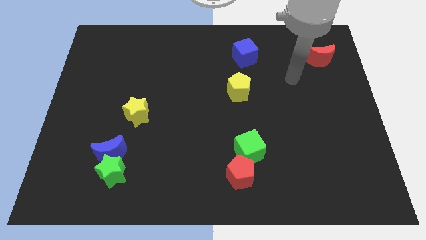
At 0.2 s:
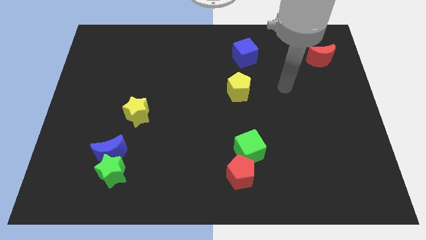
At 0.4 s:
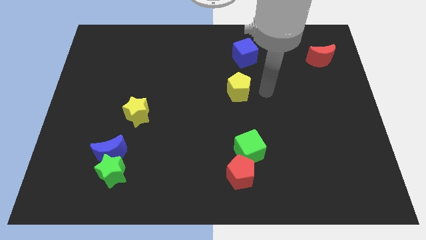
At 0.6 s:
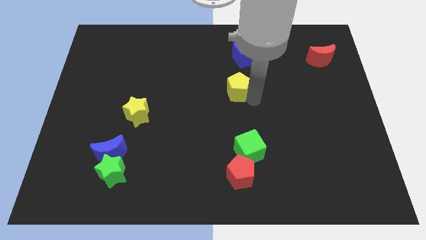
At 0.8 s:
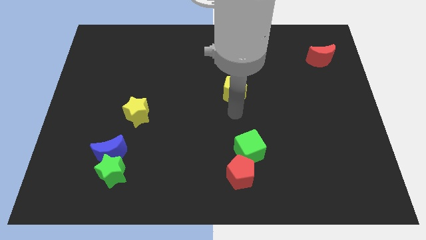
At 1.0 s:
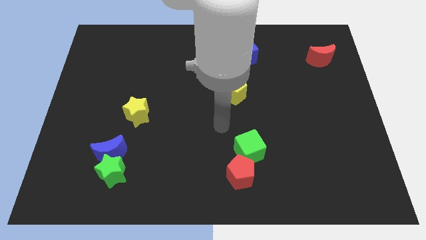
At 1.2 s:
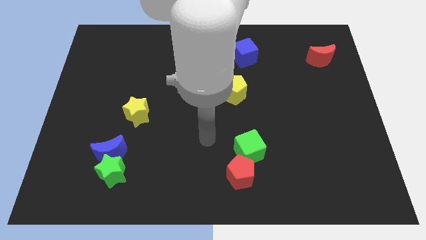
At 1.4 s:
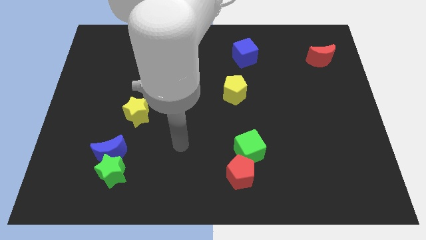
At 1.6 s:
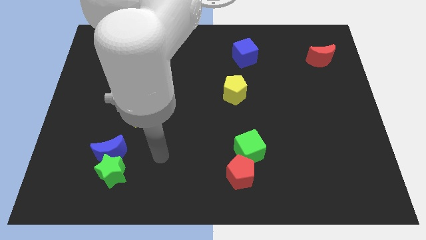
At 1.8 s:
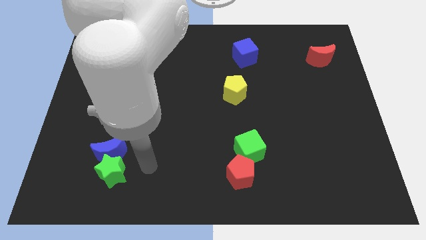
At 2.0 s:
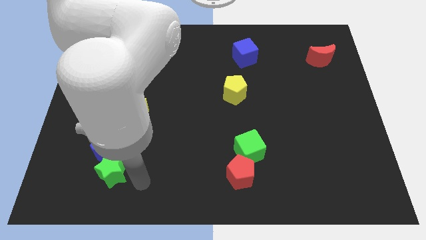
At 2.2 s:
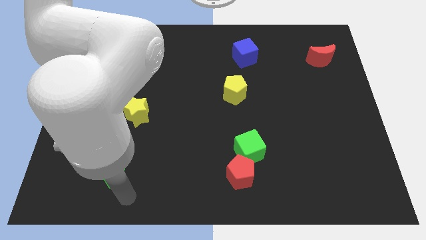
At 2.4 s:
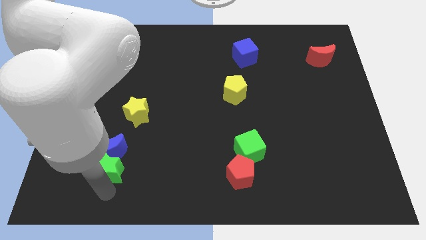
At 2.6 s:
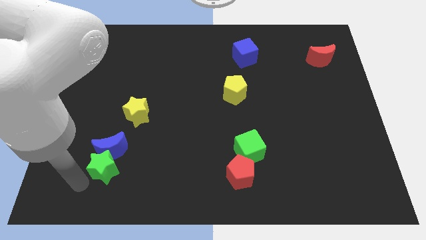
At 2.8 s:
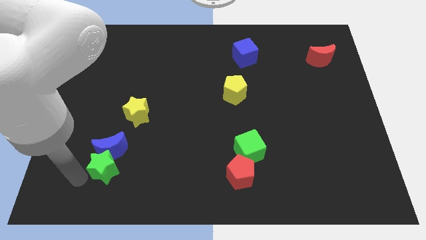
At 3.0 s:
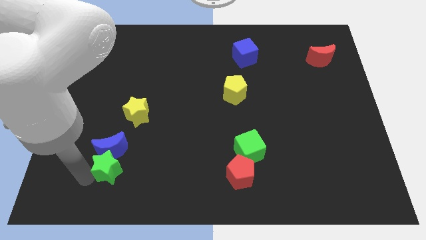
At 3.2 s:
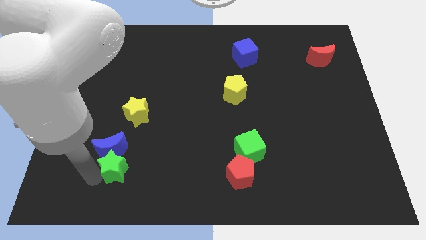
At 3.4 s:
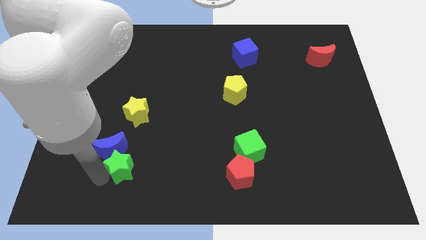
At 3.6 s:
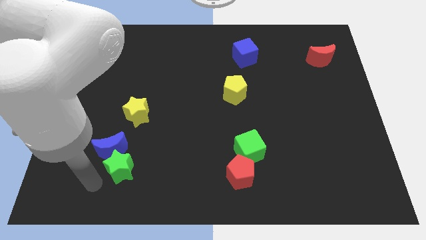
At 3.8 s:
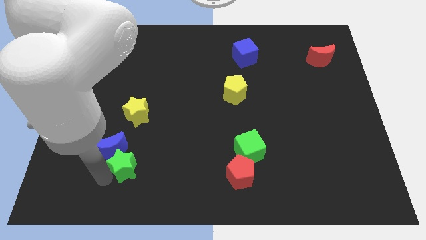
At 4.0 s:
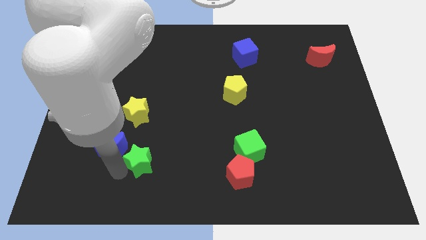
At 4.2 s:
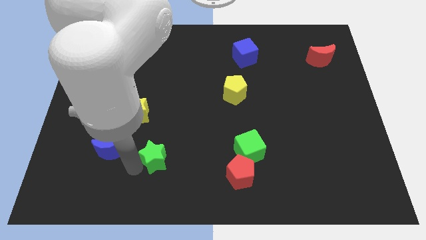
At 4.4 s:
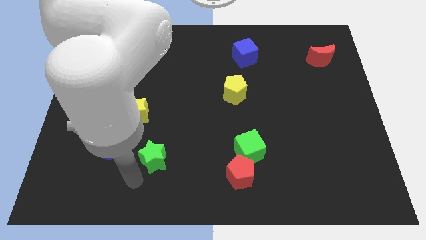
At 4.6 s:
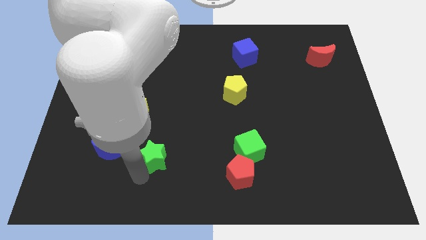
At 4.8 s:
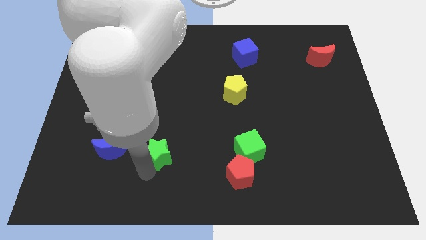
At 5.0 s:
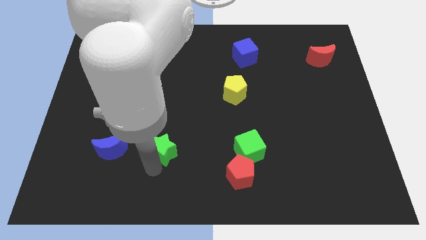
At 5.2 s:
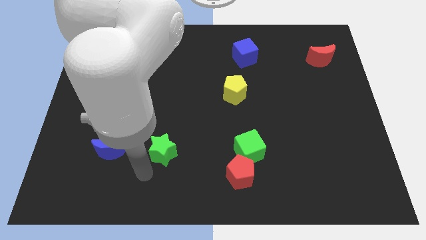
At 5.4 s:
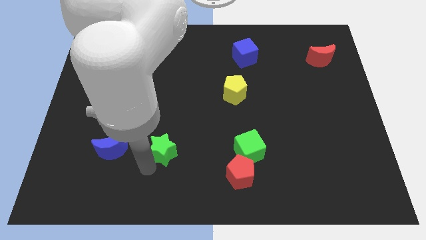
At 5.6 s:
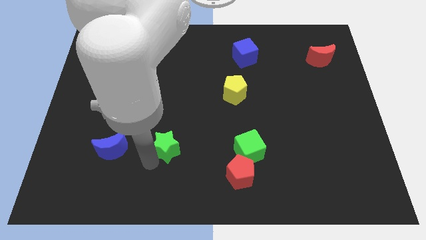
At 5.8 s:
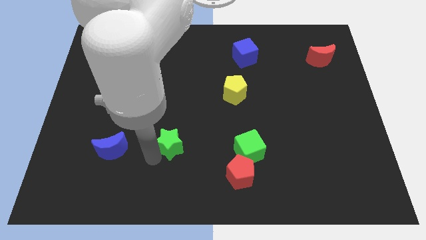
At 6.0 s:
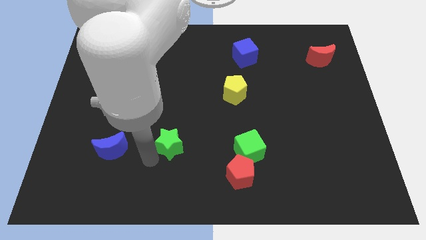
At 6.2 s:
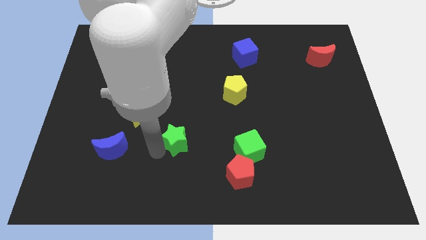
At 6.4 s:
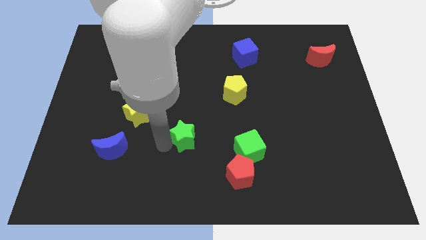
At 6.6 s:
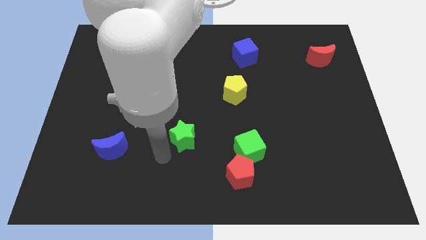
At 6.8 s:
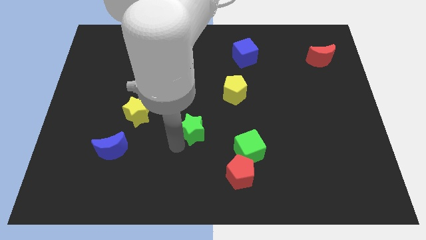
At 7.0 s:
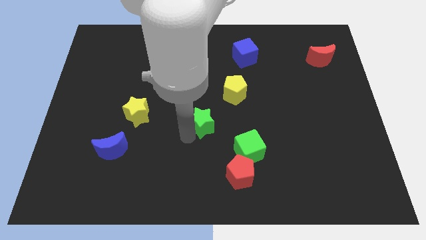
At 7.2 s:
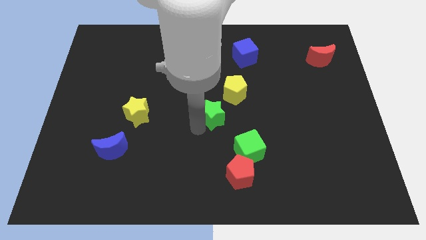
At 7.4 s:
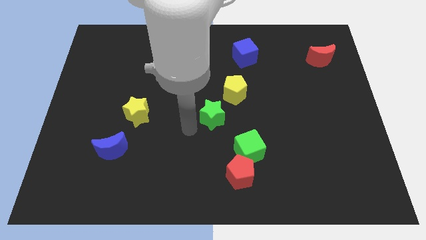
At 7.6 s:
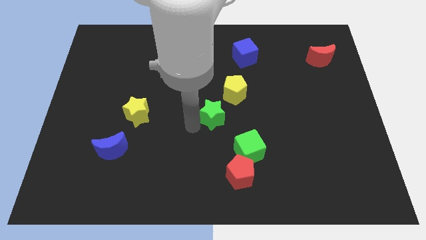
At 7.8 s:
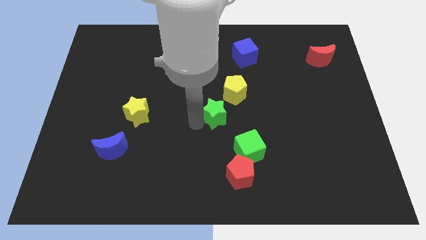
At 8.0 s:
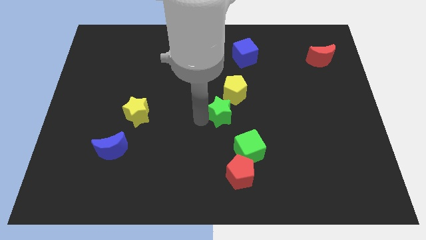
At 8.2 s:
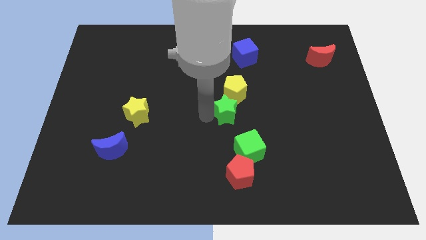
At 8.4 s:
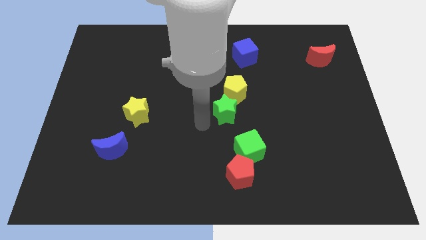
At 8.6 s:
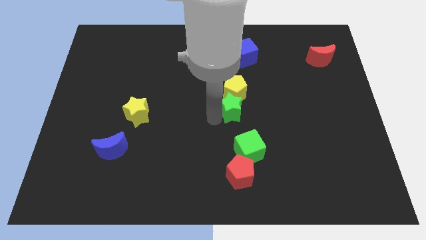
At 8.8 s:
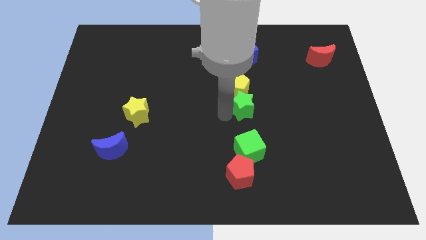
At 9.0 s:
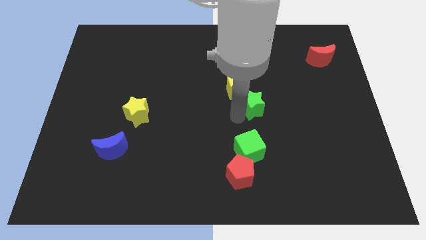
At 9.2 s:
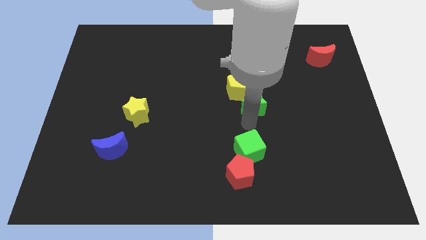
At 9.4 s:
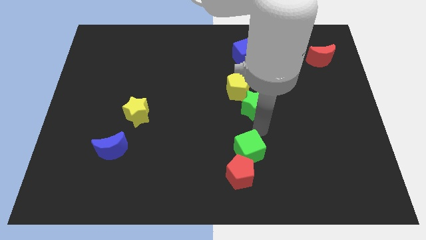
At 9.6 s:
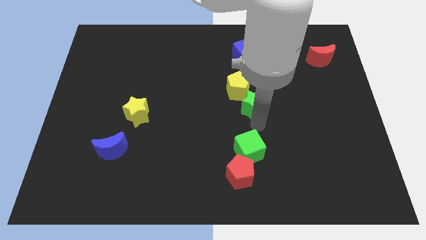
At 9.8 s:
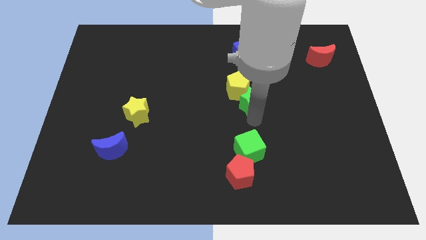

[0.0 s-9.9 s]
put the green star to the bottom side of the blue cube

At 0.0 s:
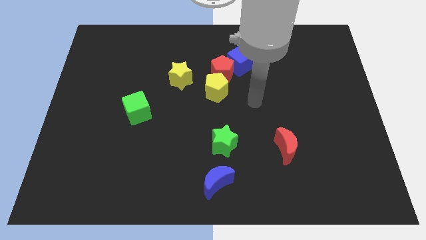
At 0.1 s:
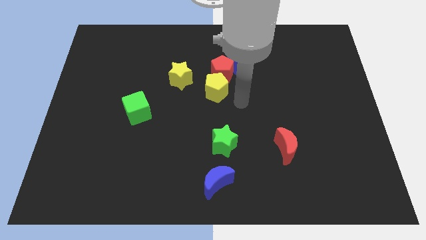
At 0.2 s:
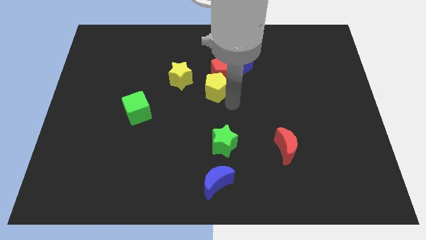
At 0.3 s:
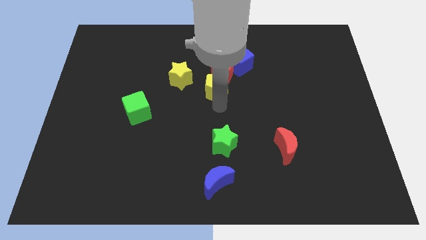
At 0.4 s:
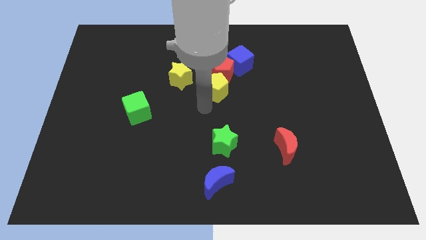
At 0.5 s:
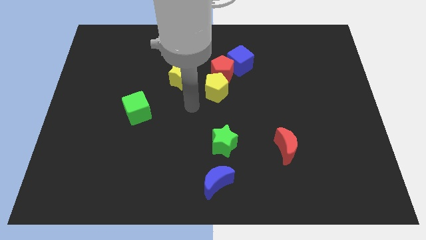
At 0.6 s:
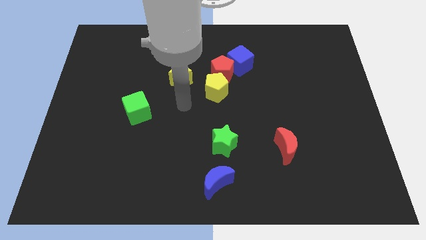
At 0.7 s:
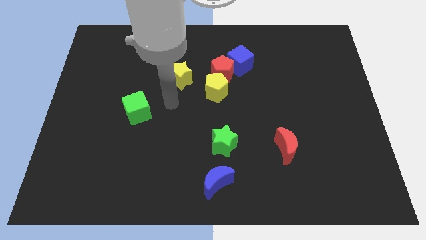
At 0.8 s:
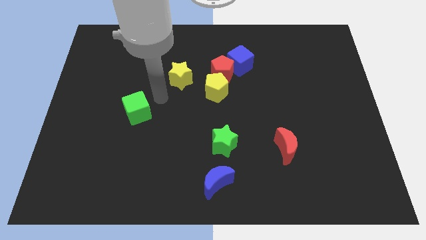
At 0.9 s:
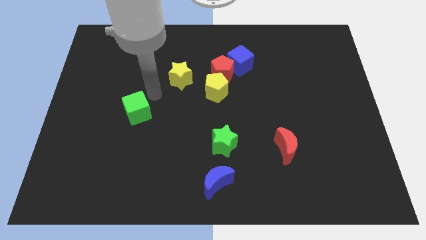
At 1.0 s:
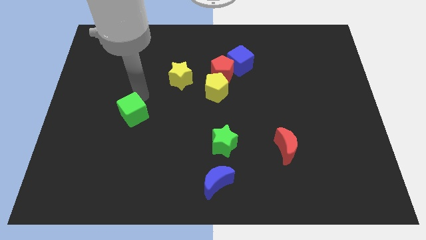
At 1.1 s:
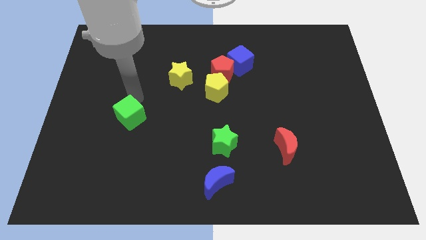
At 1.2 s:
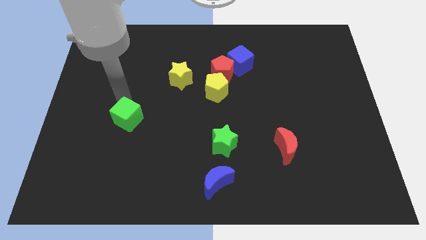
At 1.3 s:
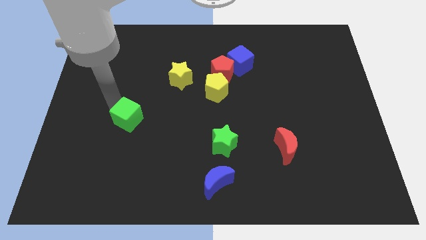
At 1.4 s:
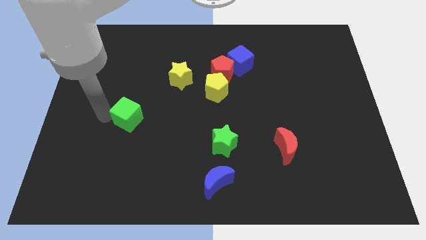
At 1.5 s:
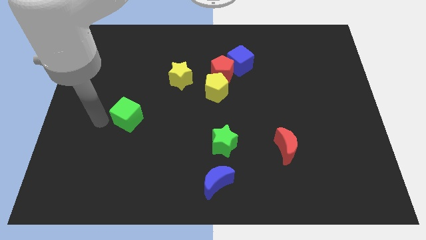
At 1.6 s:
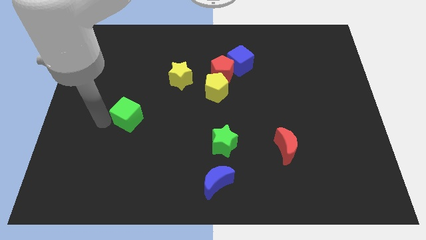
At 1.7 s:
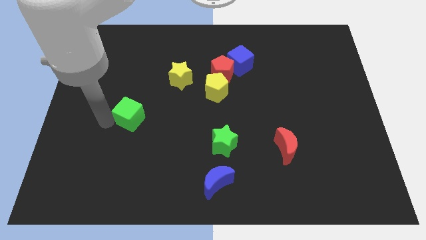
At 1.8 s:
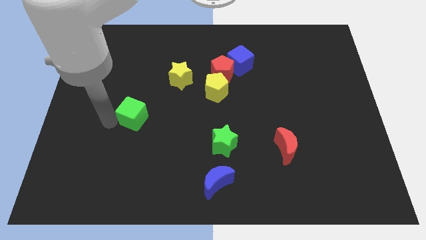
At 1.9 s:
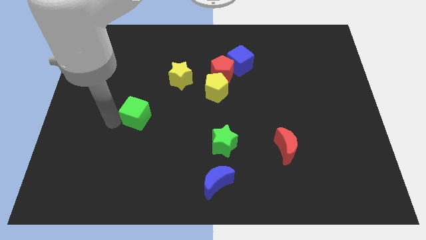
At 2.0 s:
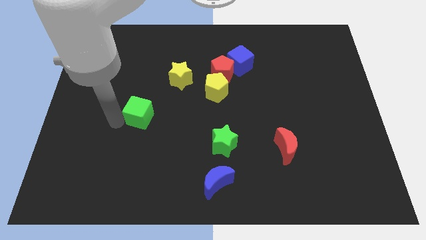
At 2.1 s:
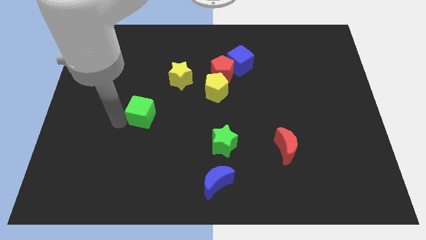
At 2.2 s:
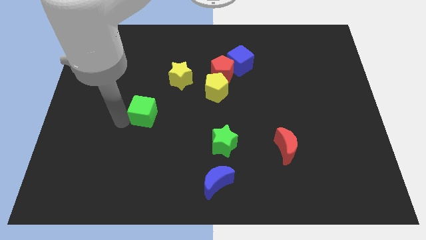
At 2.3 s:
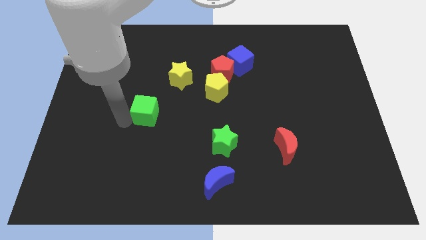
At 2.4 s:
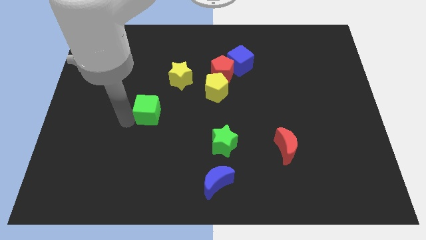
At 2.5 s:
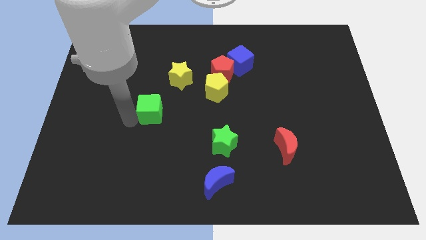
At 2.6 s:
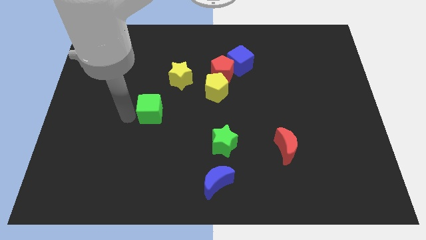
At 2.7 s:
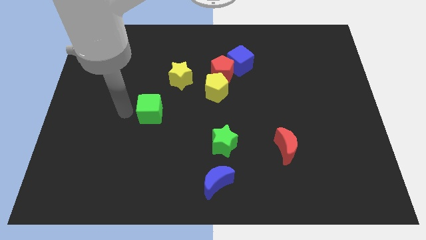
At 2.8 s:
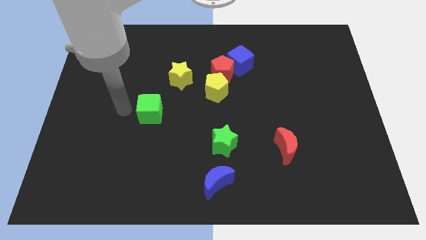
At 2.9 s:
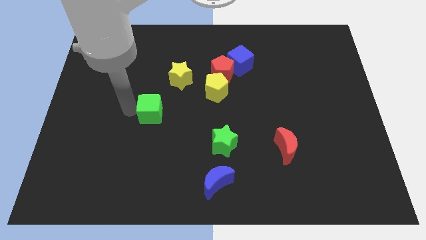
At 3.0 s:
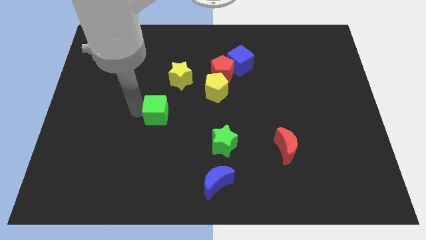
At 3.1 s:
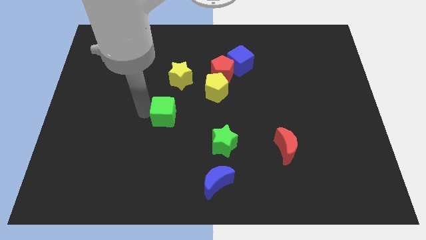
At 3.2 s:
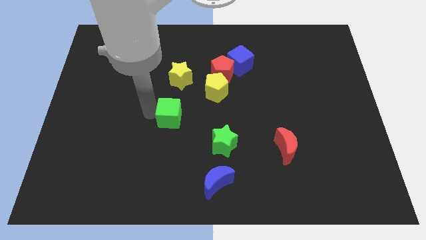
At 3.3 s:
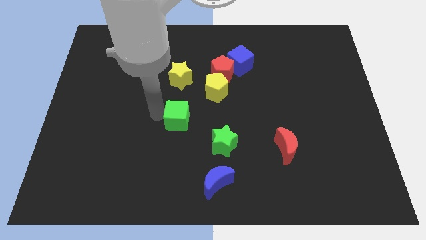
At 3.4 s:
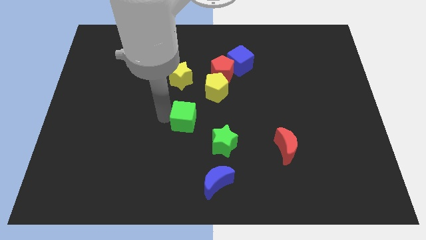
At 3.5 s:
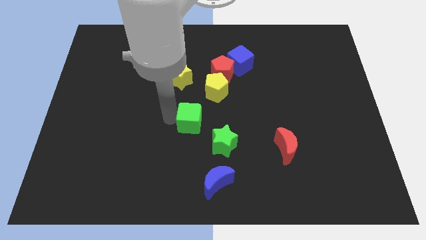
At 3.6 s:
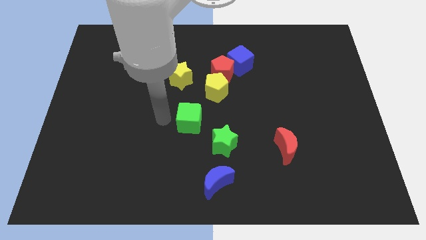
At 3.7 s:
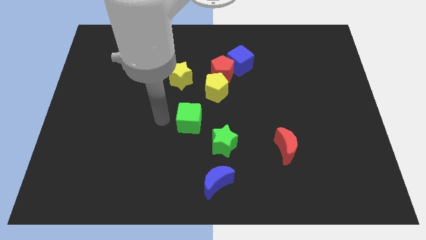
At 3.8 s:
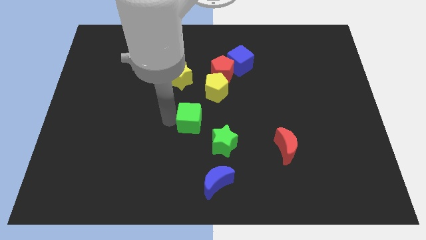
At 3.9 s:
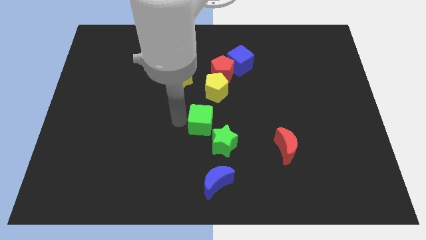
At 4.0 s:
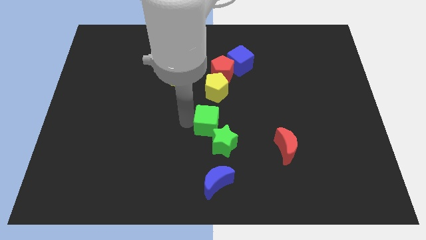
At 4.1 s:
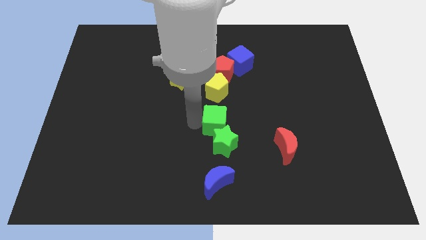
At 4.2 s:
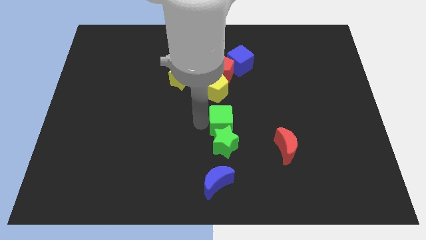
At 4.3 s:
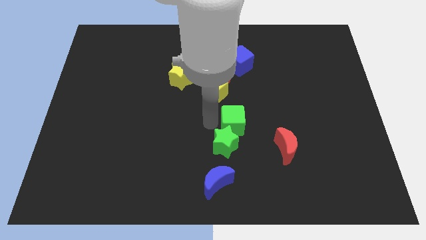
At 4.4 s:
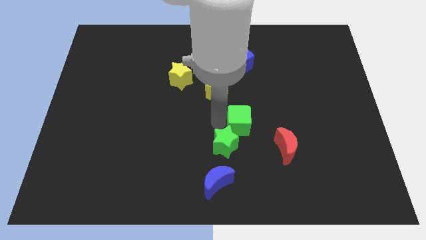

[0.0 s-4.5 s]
move the green cube diagonally up and to the left of the red moon
